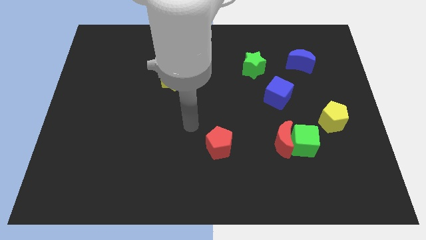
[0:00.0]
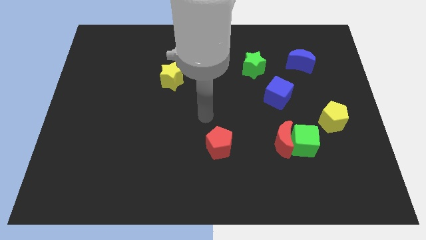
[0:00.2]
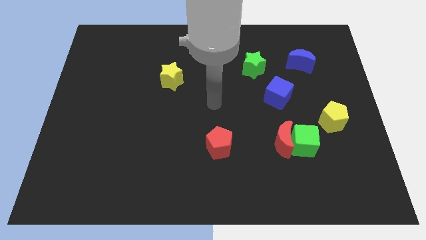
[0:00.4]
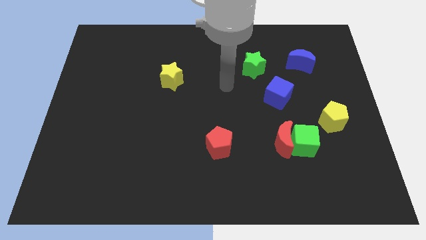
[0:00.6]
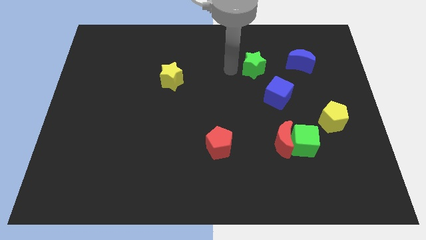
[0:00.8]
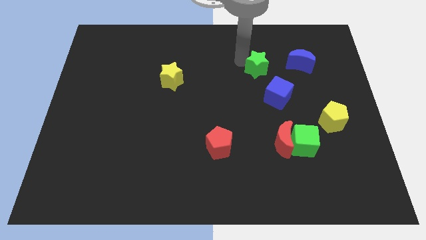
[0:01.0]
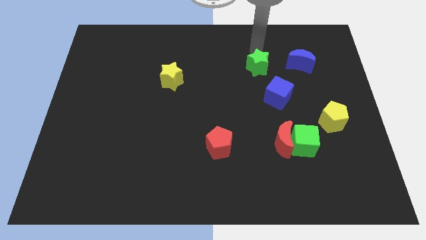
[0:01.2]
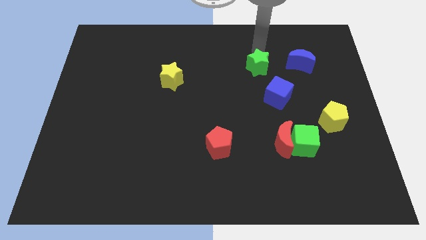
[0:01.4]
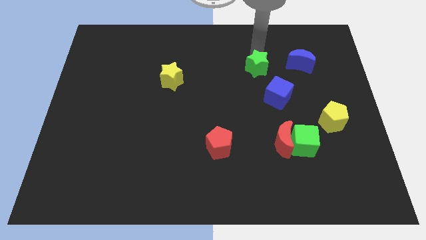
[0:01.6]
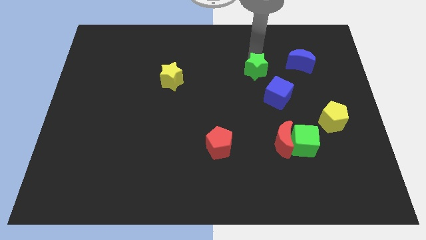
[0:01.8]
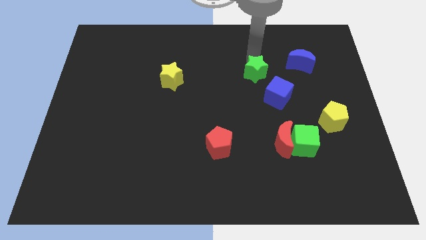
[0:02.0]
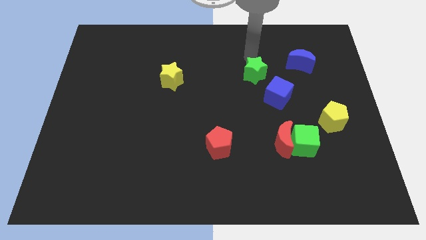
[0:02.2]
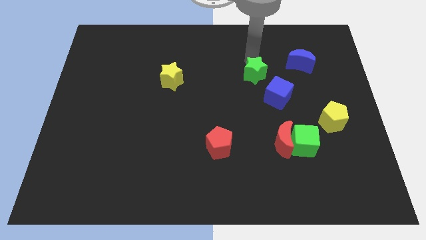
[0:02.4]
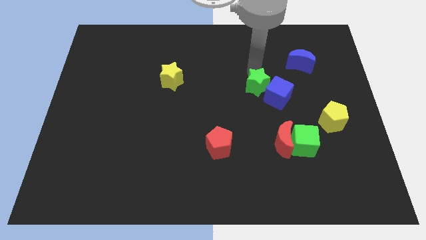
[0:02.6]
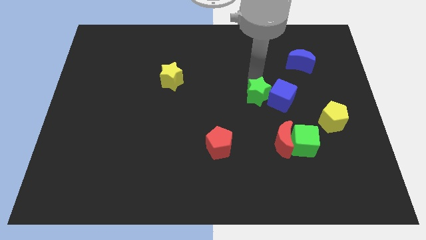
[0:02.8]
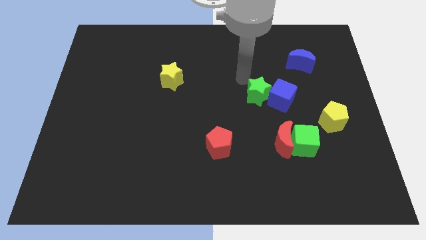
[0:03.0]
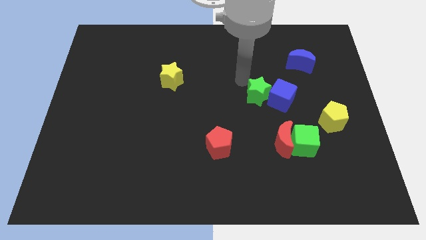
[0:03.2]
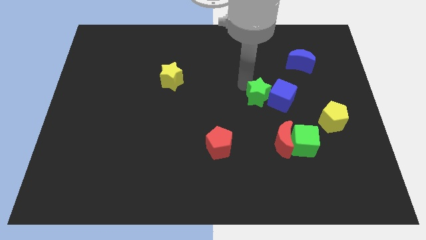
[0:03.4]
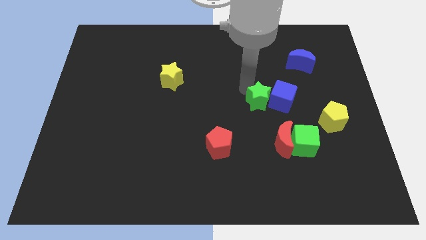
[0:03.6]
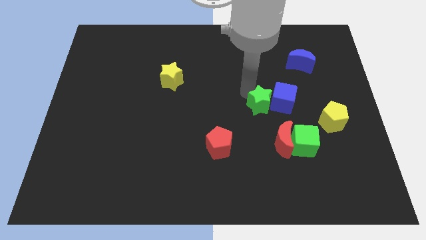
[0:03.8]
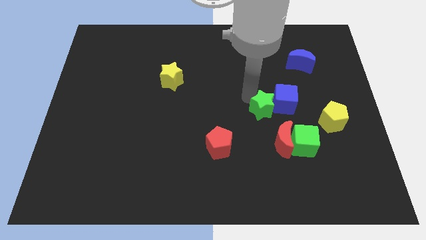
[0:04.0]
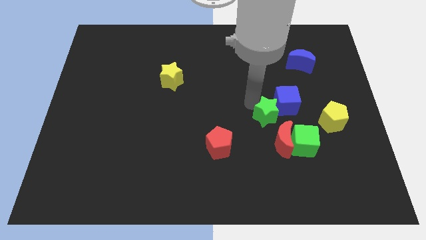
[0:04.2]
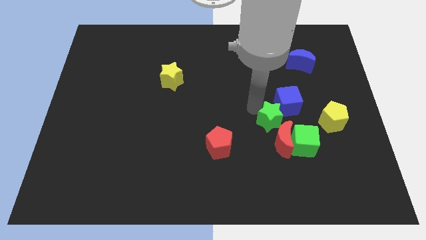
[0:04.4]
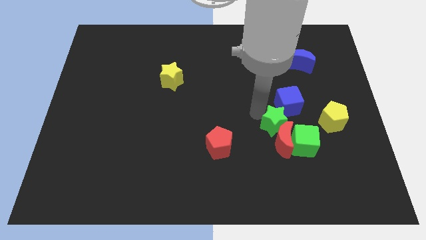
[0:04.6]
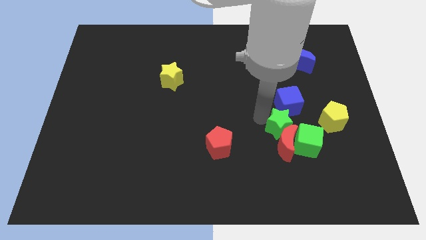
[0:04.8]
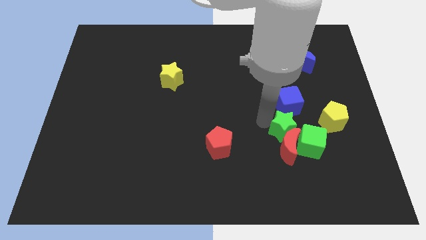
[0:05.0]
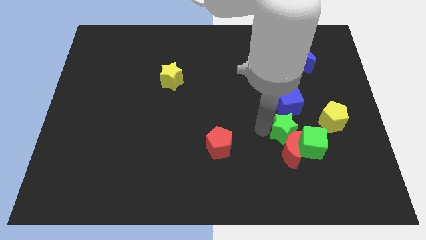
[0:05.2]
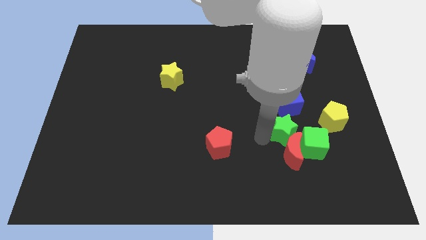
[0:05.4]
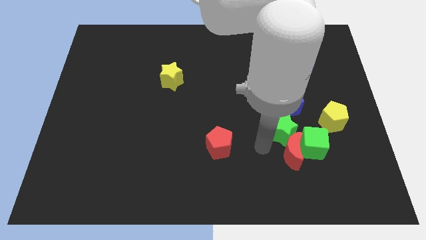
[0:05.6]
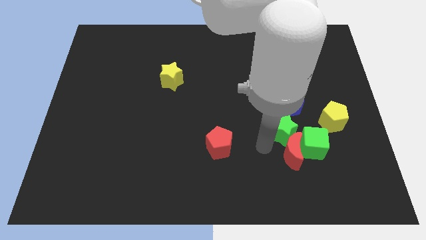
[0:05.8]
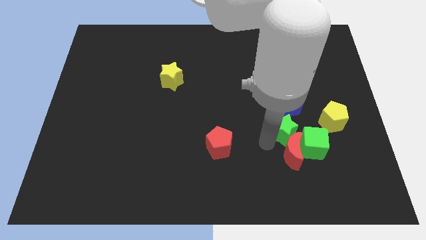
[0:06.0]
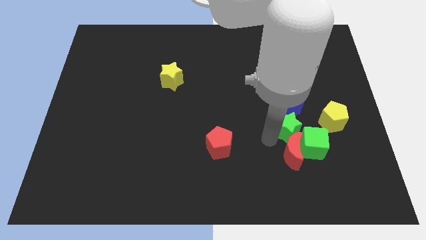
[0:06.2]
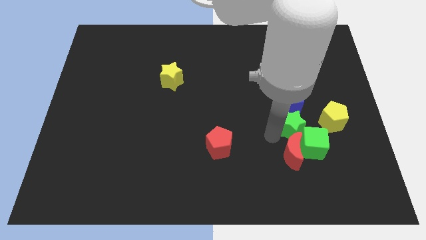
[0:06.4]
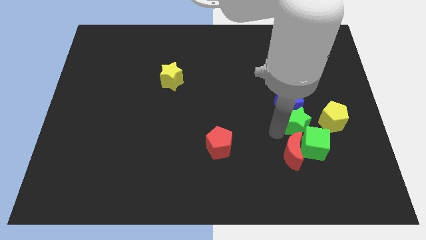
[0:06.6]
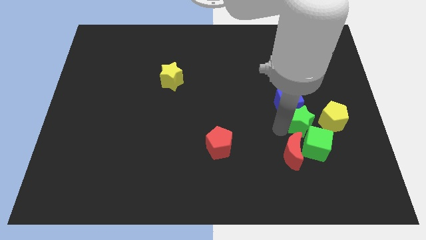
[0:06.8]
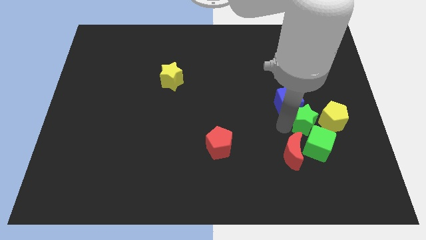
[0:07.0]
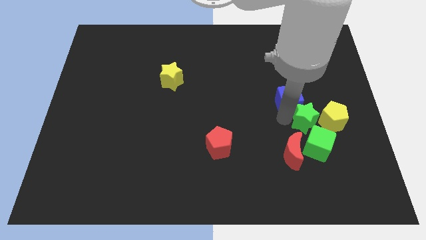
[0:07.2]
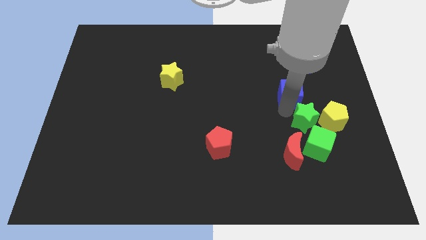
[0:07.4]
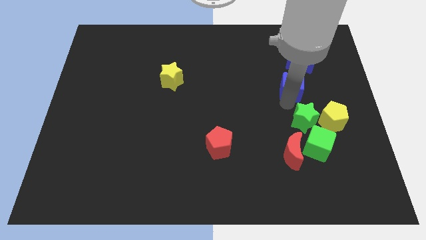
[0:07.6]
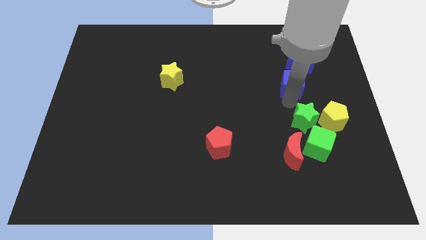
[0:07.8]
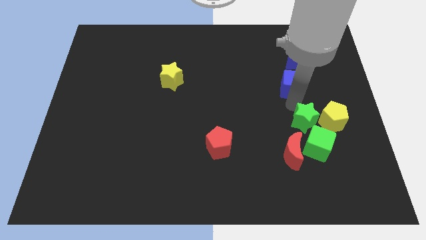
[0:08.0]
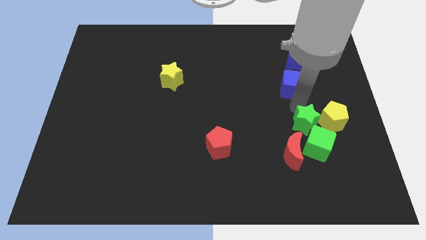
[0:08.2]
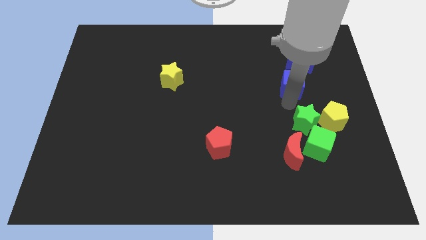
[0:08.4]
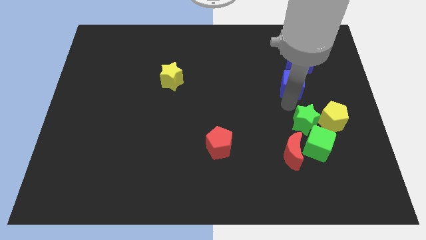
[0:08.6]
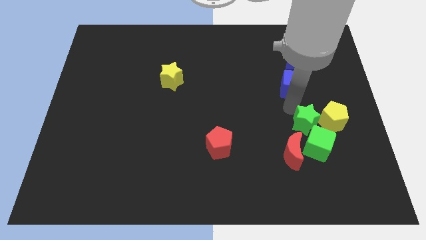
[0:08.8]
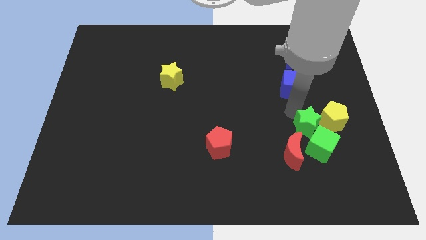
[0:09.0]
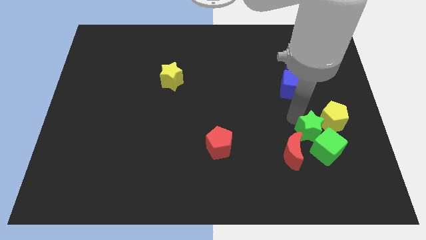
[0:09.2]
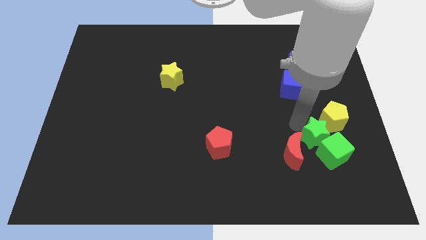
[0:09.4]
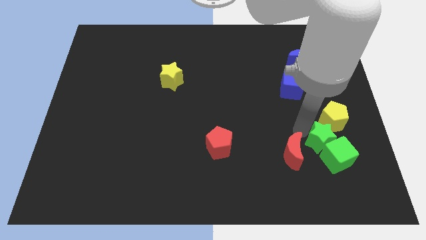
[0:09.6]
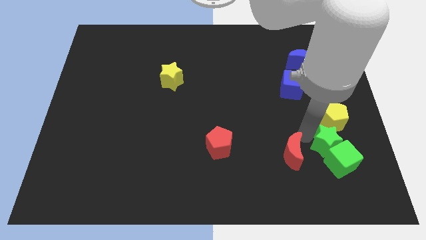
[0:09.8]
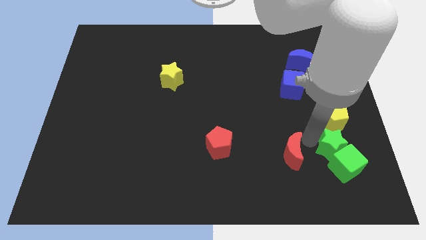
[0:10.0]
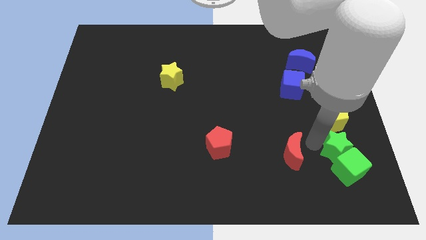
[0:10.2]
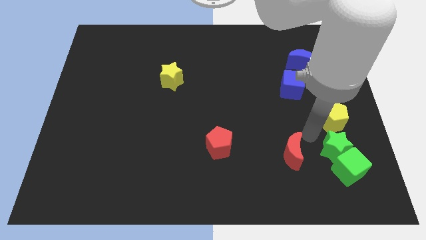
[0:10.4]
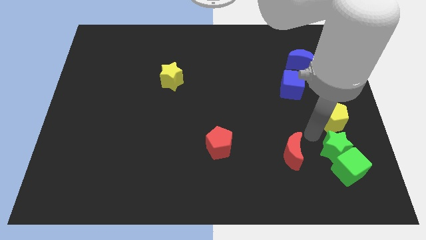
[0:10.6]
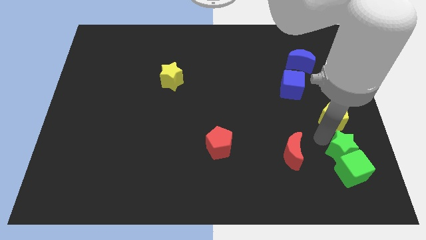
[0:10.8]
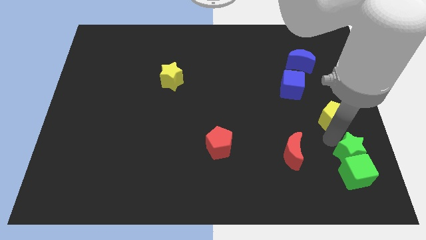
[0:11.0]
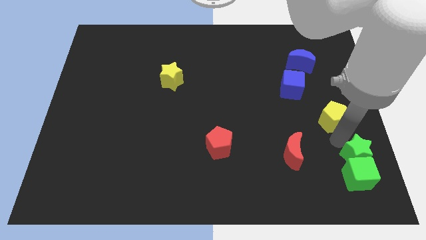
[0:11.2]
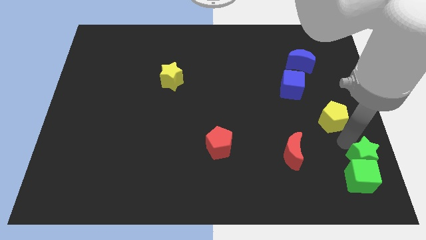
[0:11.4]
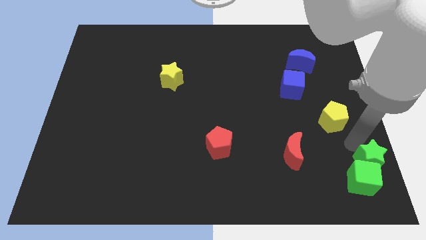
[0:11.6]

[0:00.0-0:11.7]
push the green star to the bottom right of the board
